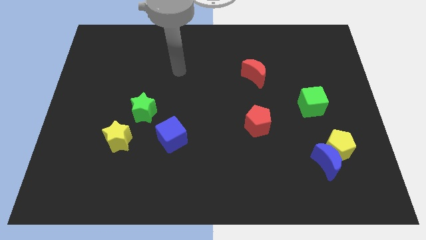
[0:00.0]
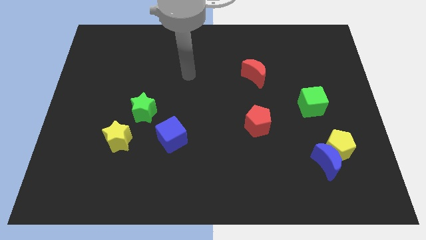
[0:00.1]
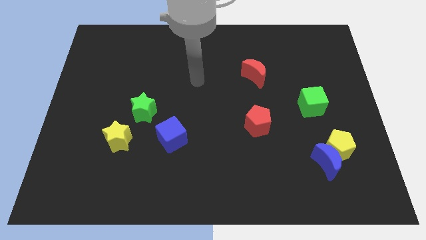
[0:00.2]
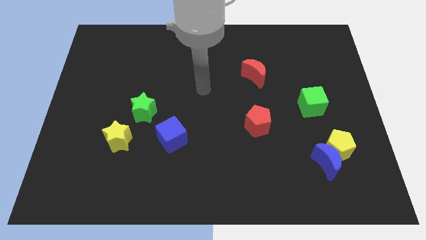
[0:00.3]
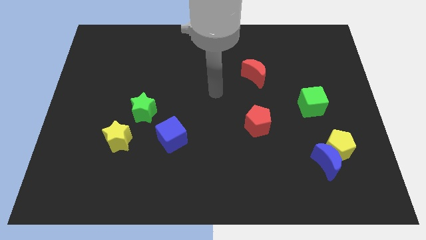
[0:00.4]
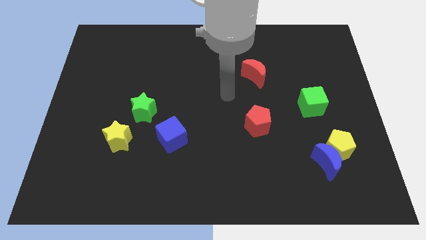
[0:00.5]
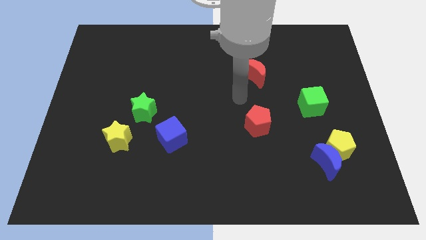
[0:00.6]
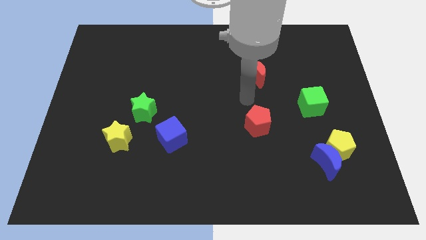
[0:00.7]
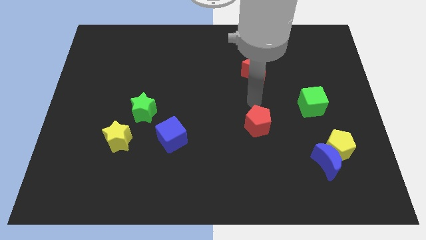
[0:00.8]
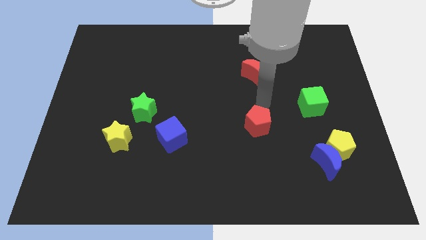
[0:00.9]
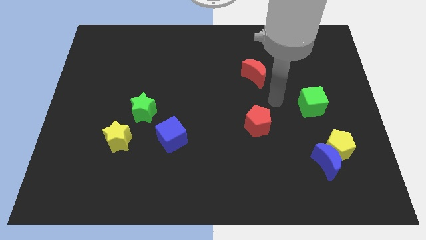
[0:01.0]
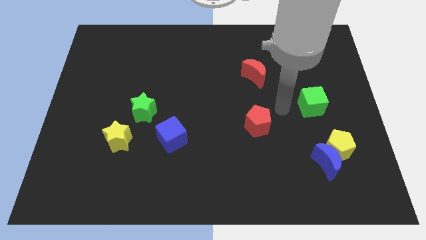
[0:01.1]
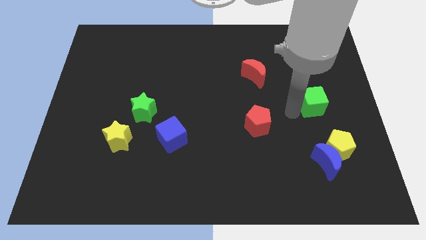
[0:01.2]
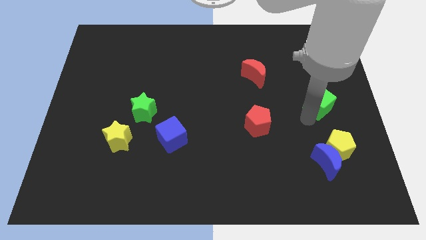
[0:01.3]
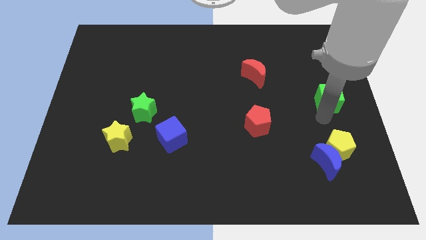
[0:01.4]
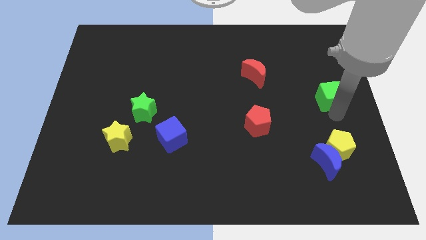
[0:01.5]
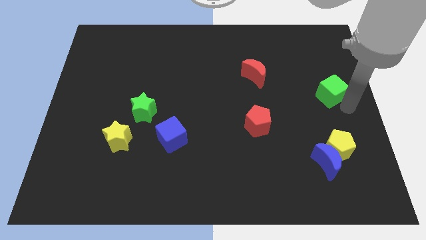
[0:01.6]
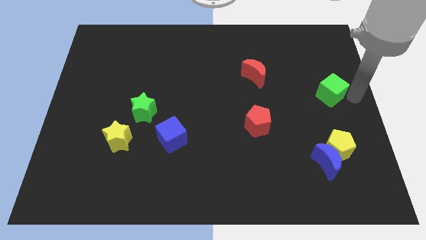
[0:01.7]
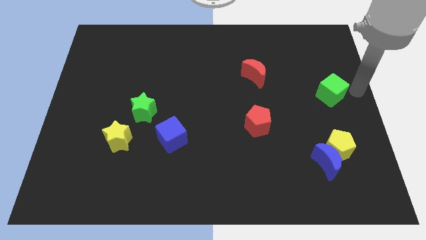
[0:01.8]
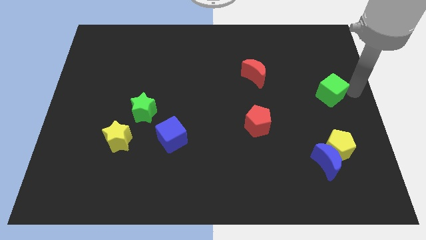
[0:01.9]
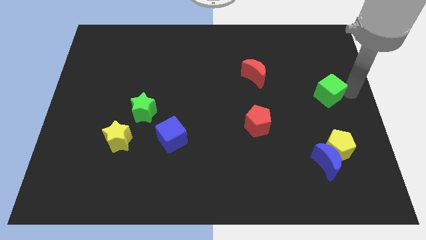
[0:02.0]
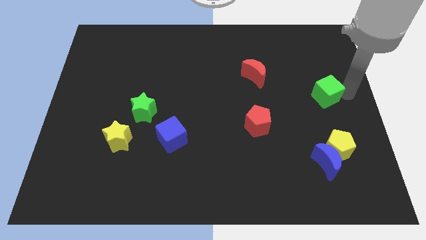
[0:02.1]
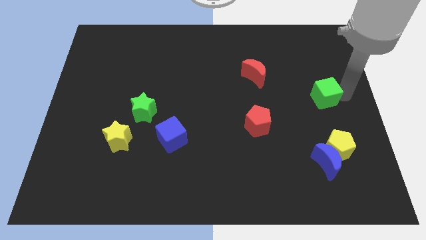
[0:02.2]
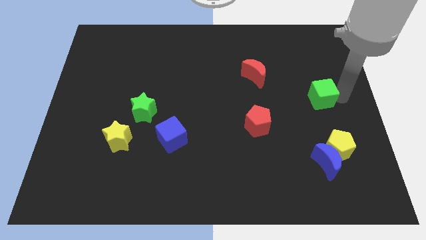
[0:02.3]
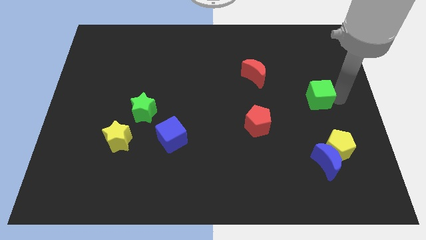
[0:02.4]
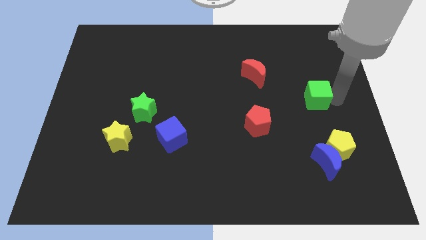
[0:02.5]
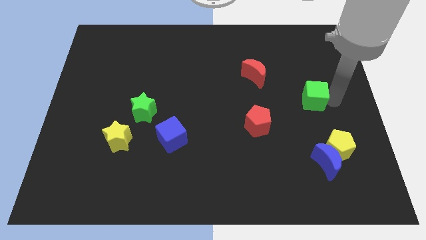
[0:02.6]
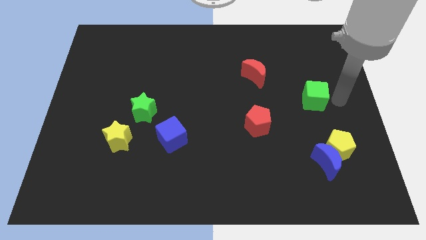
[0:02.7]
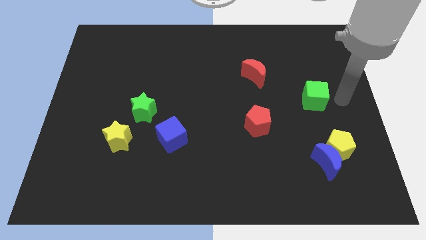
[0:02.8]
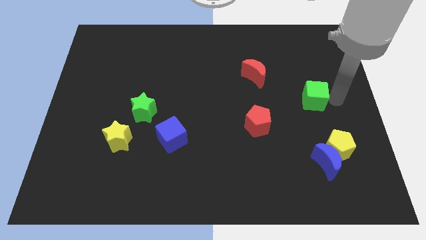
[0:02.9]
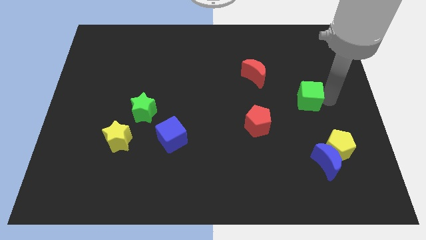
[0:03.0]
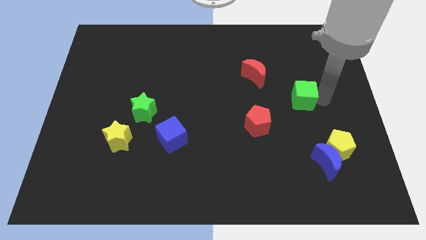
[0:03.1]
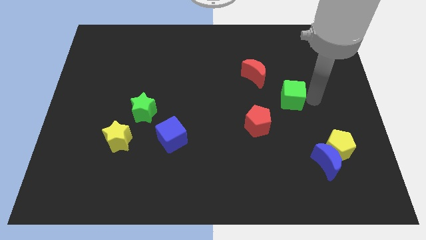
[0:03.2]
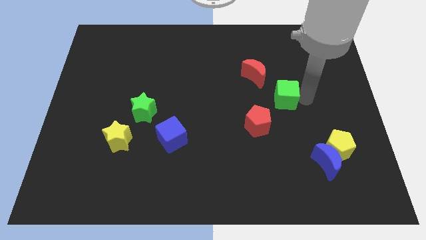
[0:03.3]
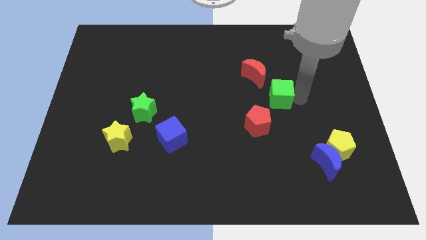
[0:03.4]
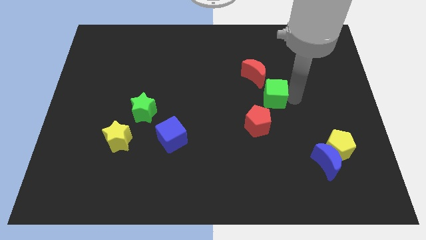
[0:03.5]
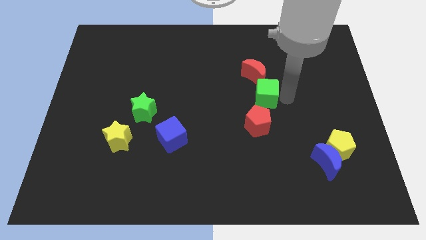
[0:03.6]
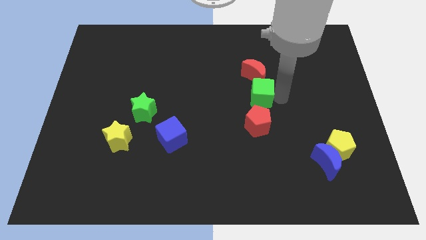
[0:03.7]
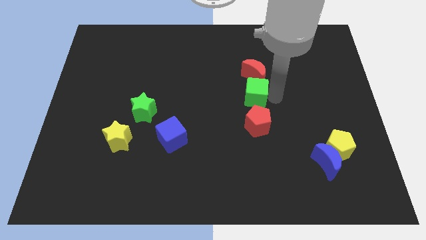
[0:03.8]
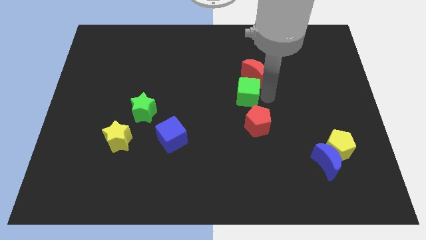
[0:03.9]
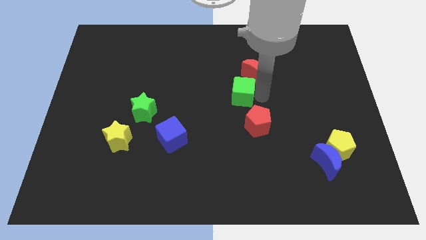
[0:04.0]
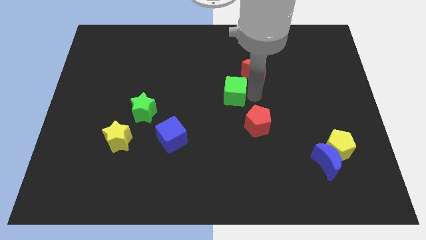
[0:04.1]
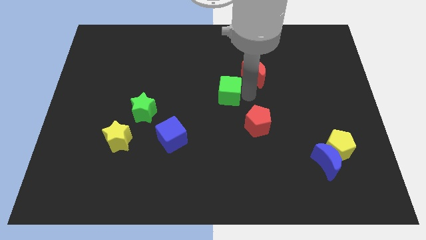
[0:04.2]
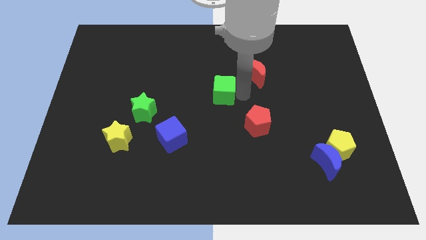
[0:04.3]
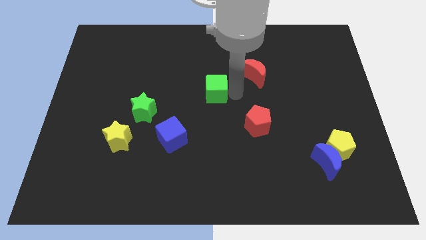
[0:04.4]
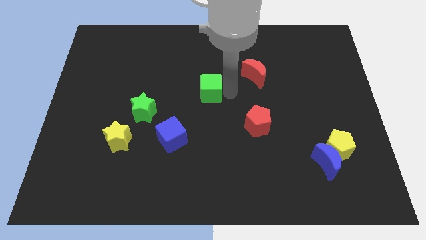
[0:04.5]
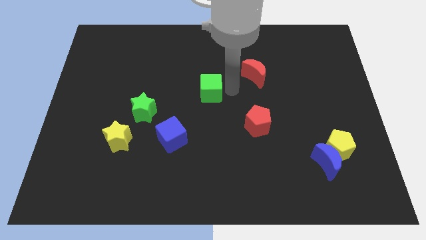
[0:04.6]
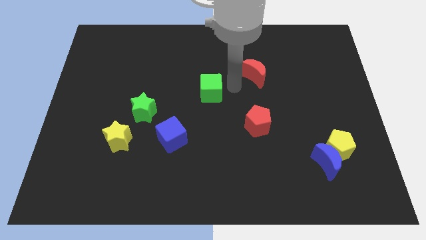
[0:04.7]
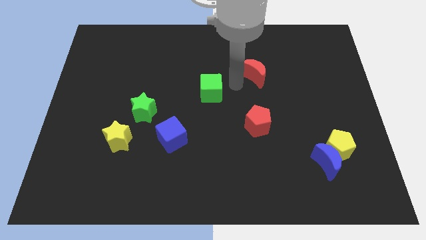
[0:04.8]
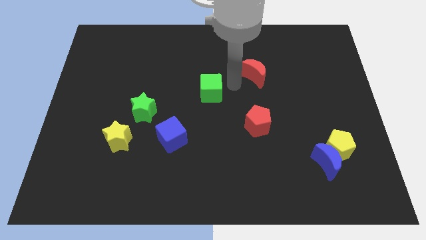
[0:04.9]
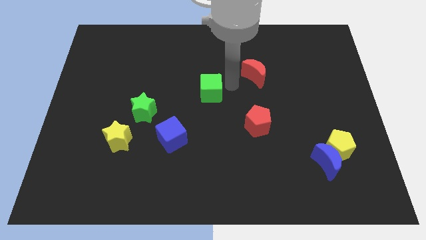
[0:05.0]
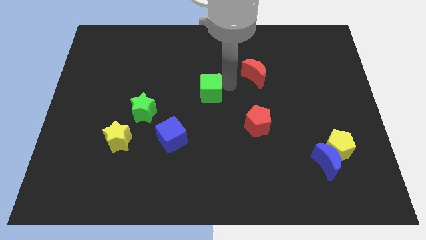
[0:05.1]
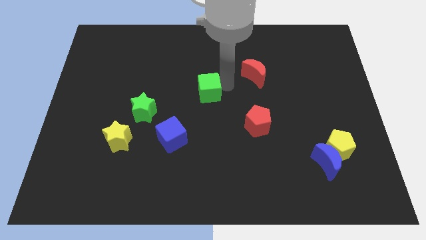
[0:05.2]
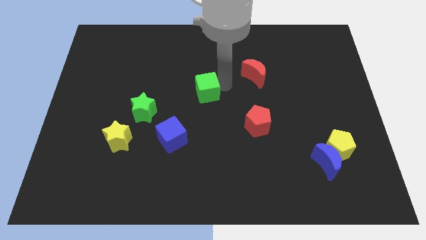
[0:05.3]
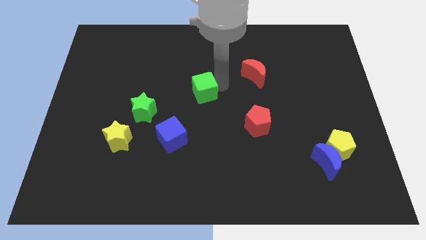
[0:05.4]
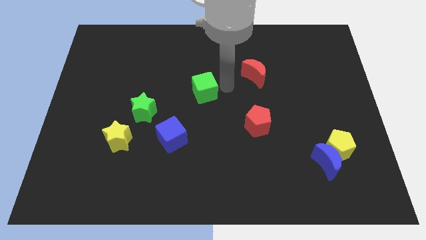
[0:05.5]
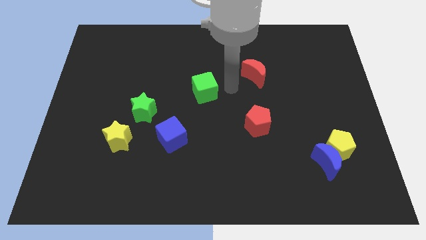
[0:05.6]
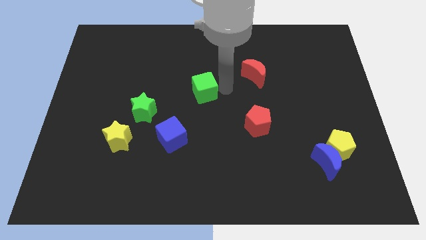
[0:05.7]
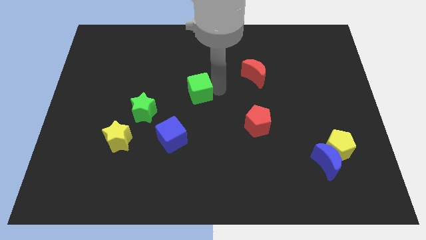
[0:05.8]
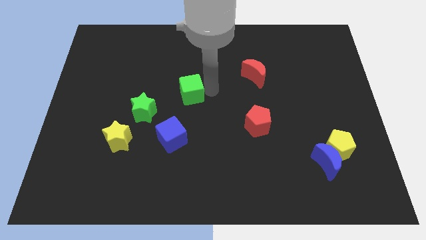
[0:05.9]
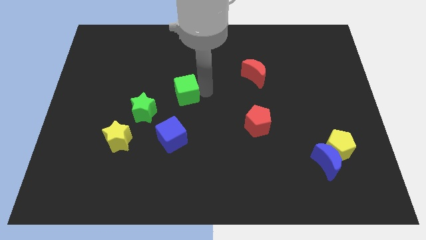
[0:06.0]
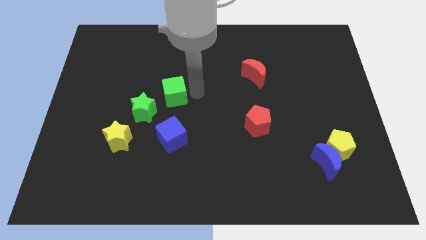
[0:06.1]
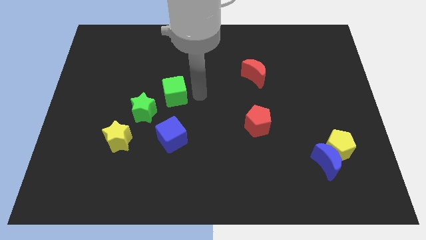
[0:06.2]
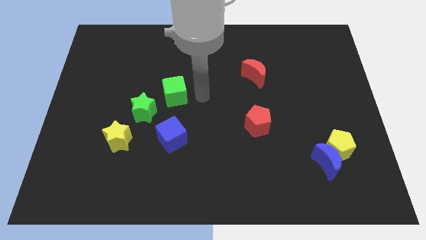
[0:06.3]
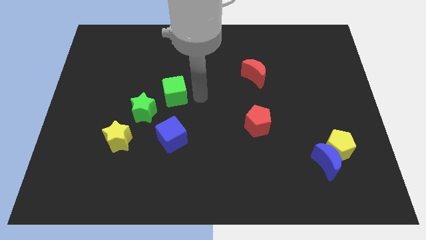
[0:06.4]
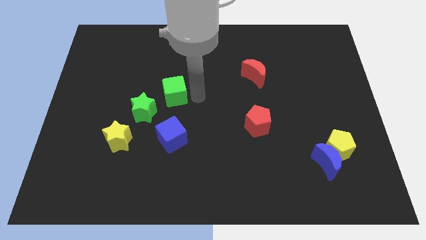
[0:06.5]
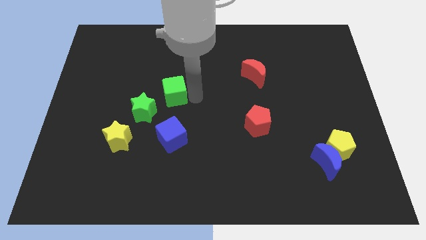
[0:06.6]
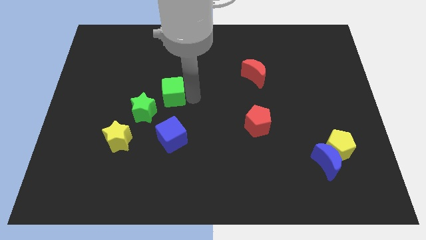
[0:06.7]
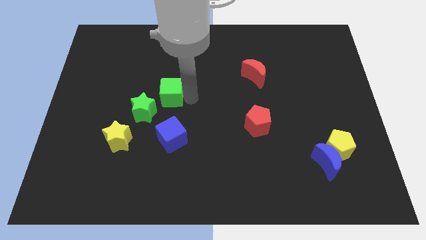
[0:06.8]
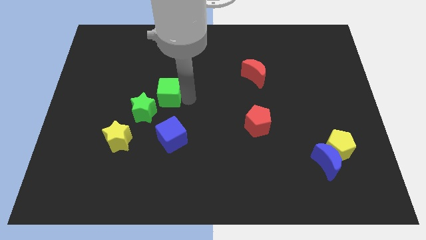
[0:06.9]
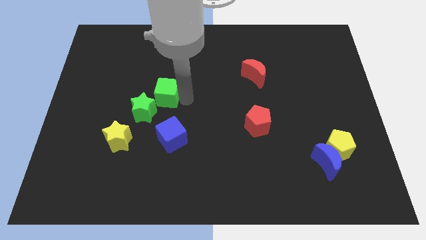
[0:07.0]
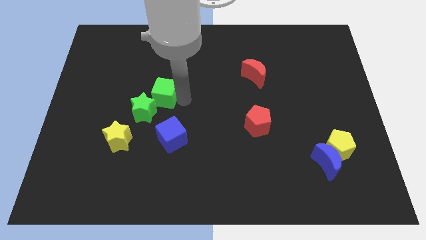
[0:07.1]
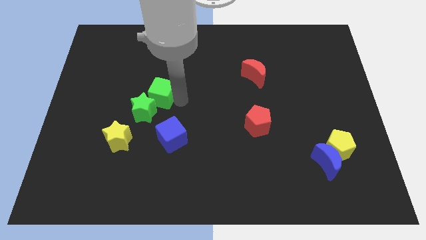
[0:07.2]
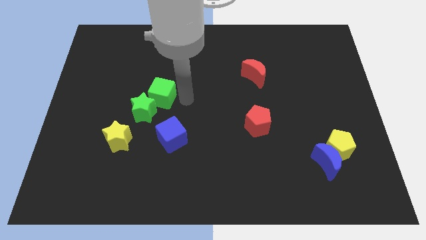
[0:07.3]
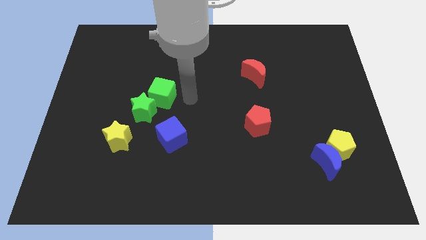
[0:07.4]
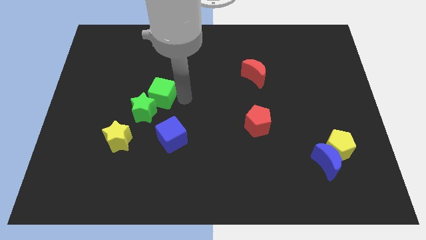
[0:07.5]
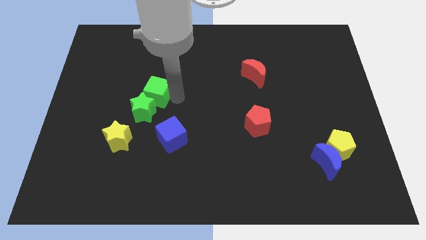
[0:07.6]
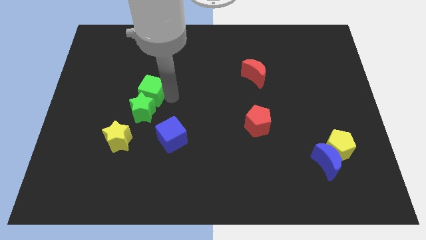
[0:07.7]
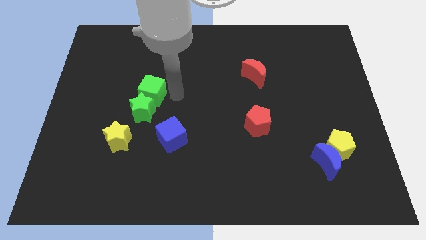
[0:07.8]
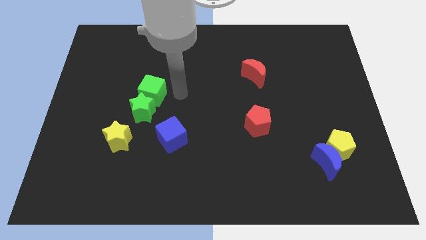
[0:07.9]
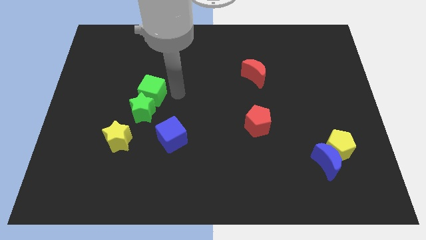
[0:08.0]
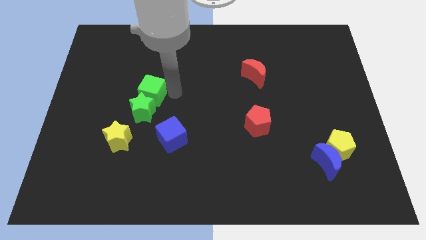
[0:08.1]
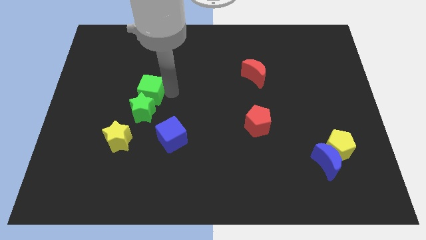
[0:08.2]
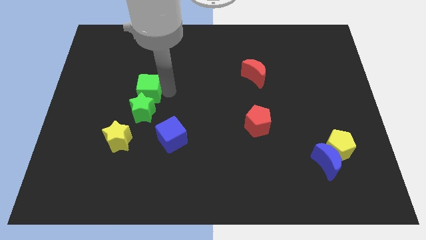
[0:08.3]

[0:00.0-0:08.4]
push the green cube to the top left of the green star

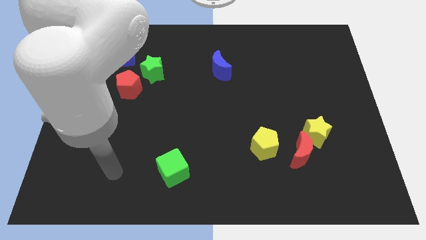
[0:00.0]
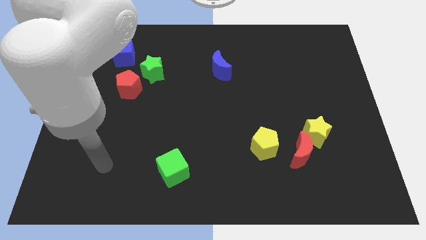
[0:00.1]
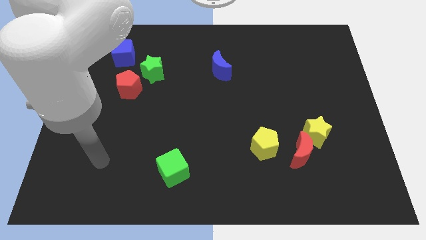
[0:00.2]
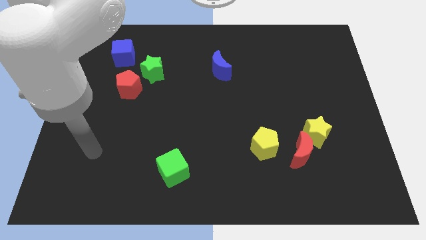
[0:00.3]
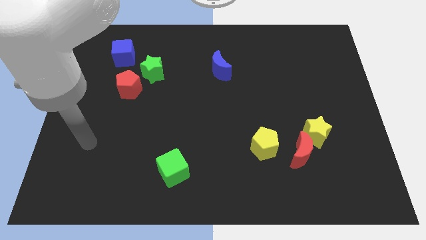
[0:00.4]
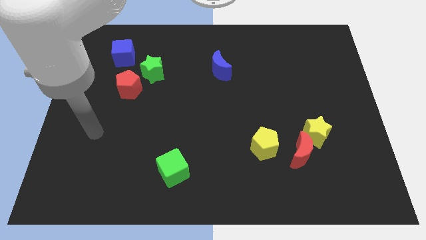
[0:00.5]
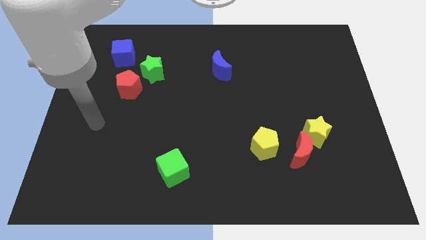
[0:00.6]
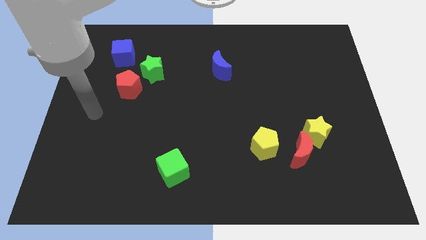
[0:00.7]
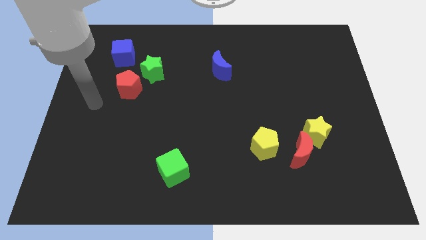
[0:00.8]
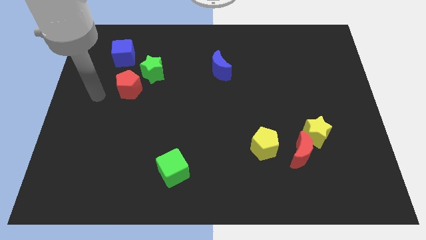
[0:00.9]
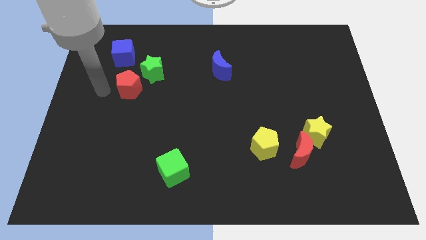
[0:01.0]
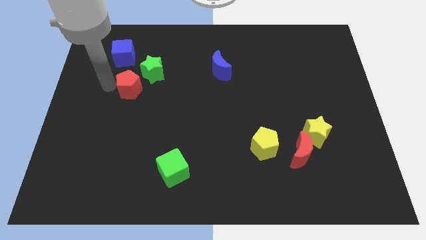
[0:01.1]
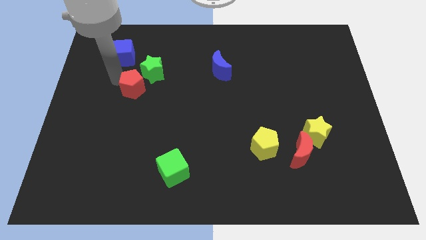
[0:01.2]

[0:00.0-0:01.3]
slide the green star to the right side of the red pentagon
